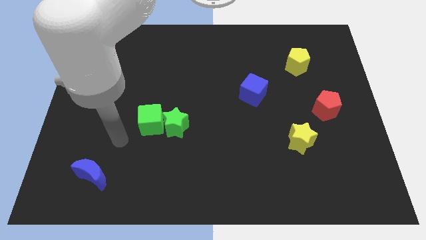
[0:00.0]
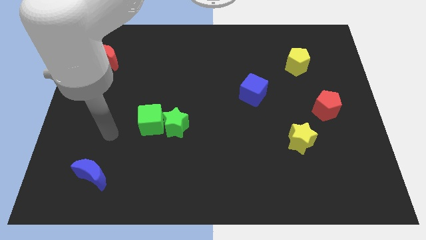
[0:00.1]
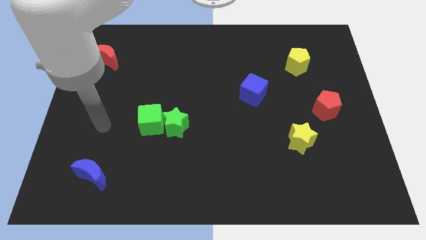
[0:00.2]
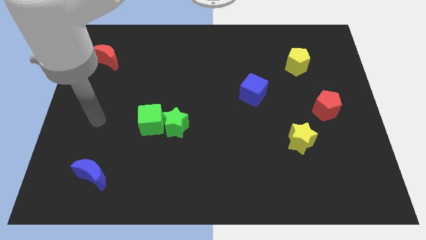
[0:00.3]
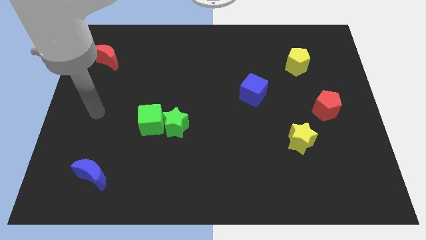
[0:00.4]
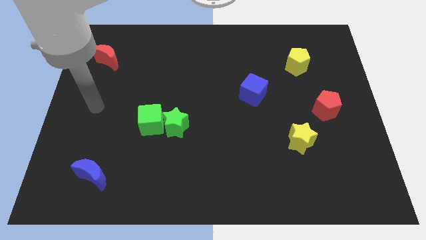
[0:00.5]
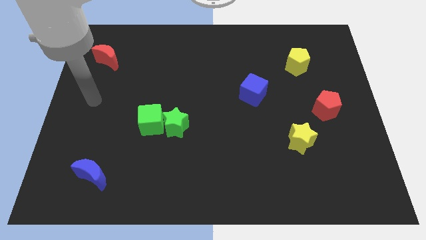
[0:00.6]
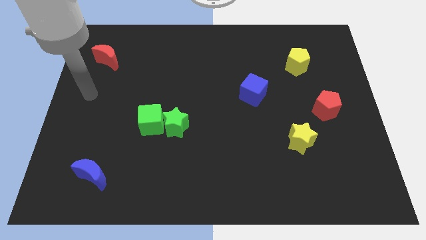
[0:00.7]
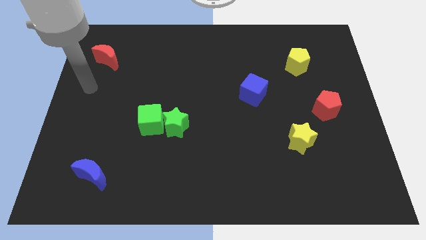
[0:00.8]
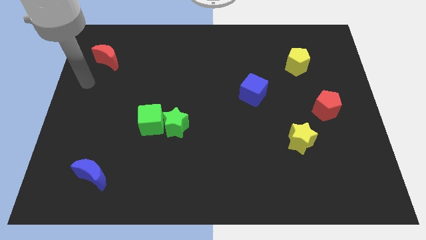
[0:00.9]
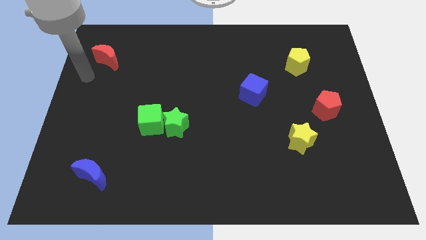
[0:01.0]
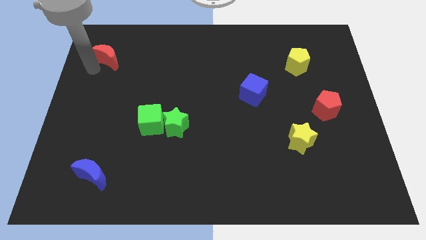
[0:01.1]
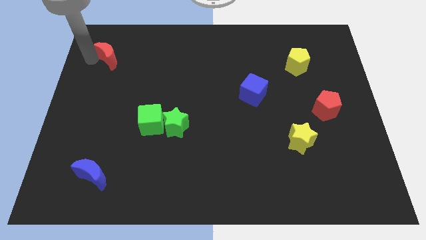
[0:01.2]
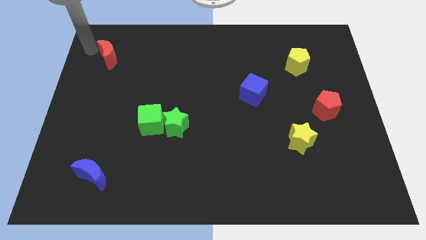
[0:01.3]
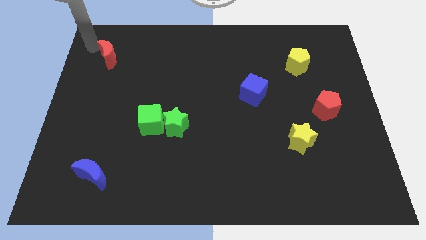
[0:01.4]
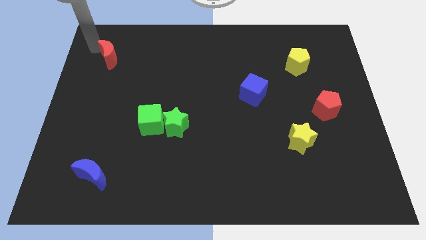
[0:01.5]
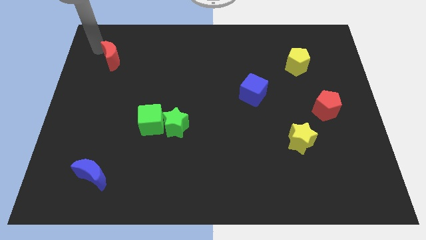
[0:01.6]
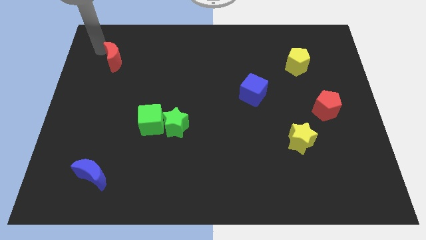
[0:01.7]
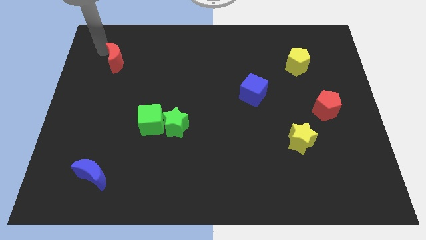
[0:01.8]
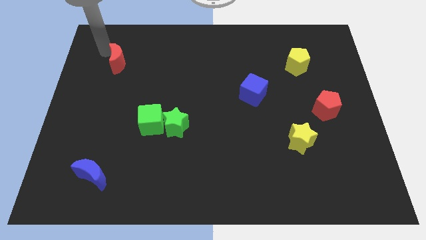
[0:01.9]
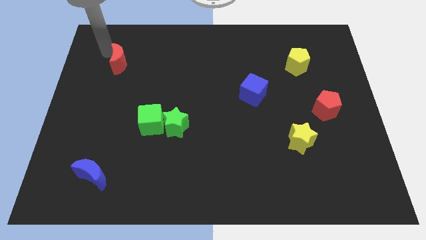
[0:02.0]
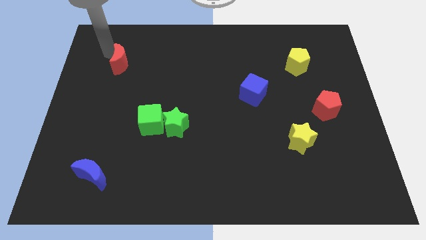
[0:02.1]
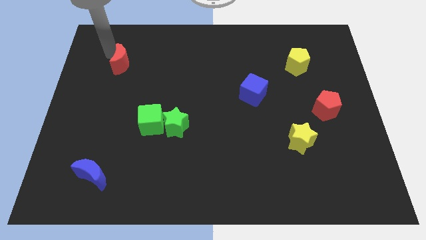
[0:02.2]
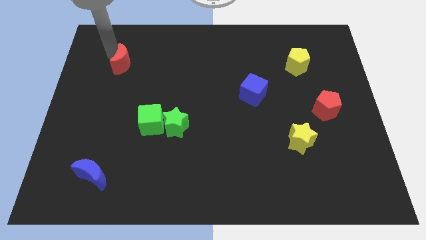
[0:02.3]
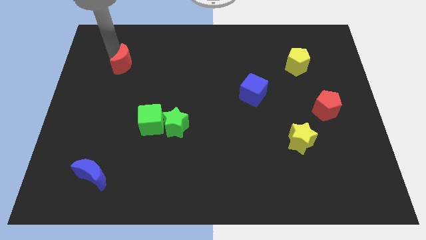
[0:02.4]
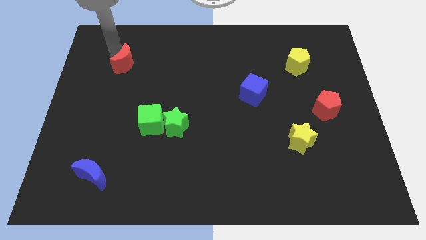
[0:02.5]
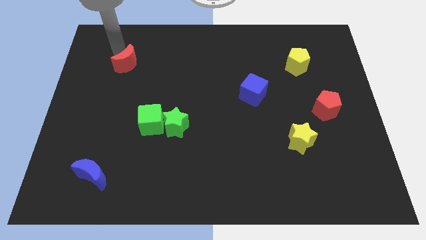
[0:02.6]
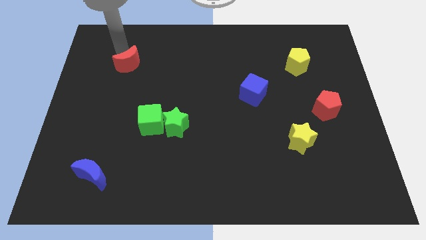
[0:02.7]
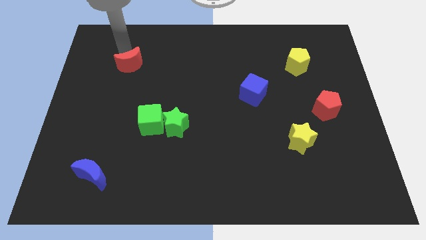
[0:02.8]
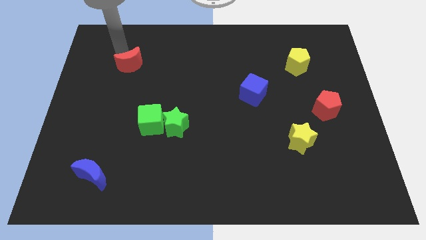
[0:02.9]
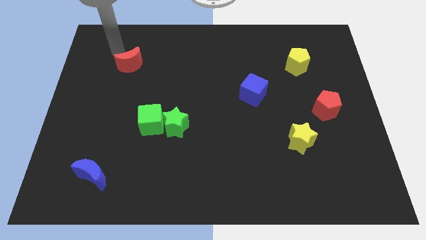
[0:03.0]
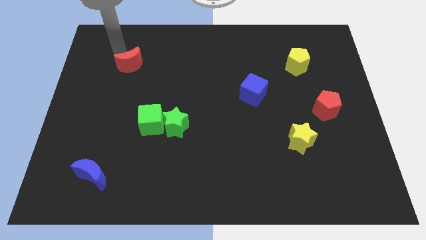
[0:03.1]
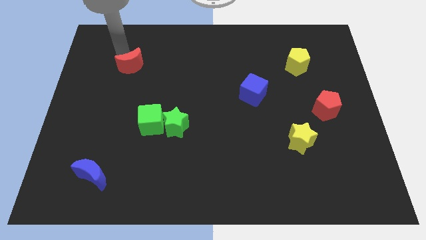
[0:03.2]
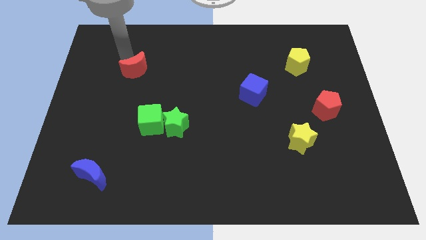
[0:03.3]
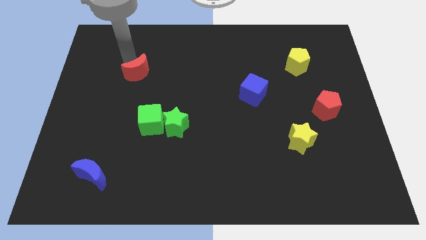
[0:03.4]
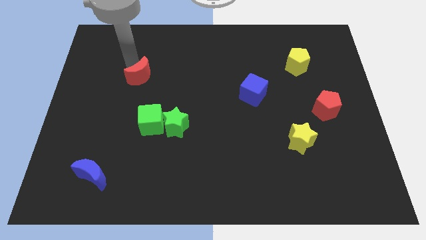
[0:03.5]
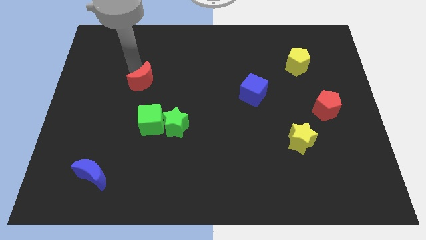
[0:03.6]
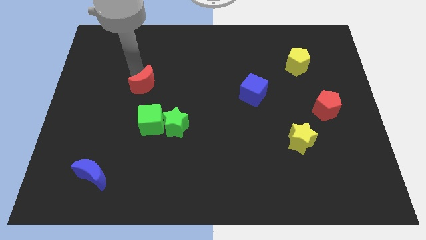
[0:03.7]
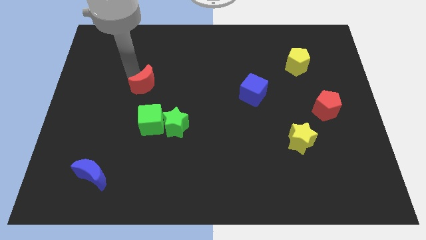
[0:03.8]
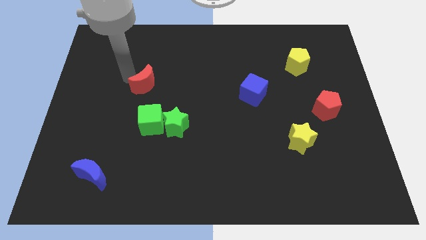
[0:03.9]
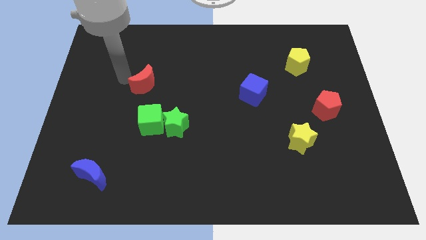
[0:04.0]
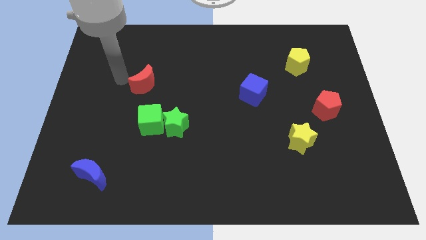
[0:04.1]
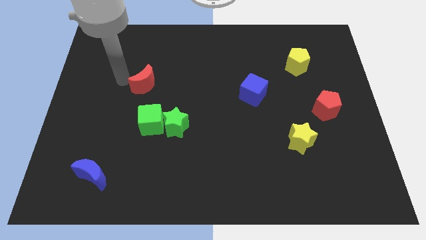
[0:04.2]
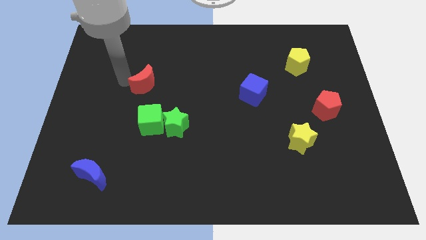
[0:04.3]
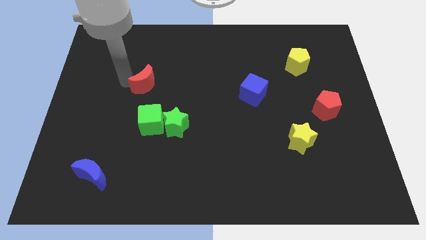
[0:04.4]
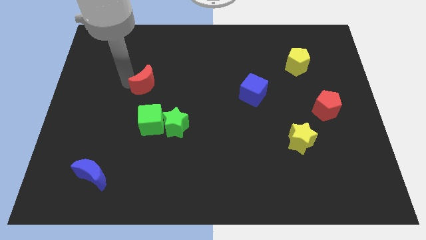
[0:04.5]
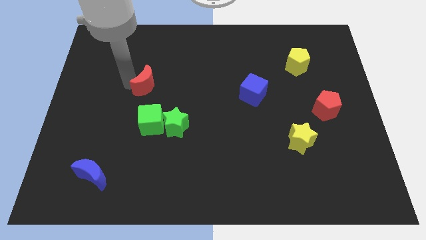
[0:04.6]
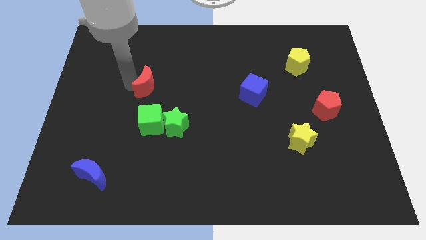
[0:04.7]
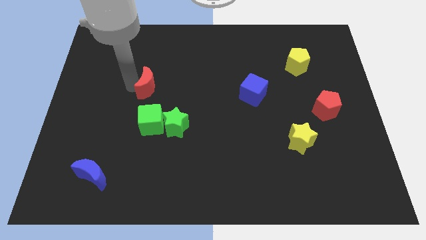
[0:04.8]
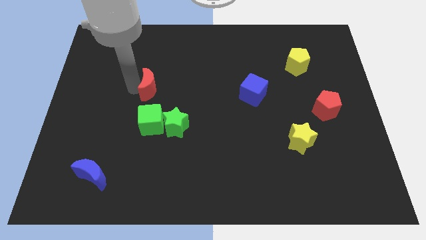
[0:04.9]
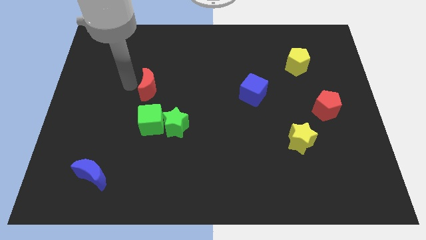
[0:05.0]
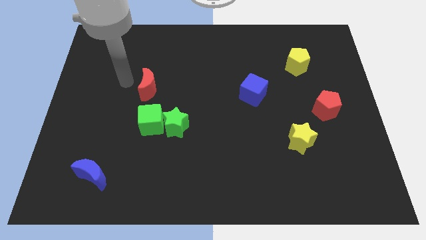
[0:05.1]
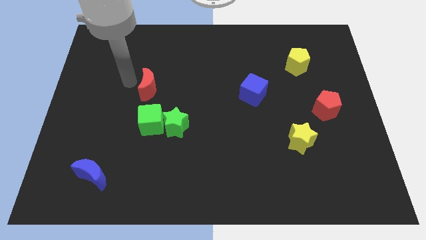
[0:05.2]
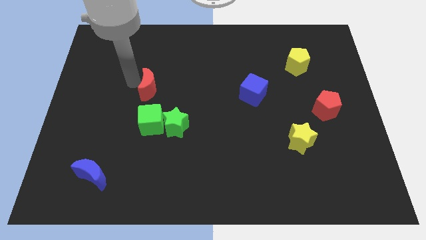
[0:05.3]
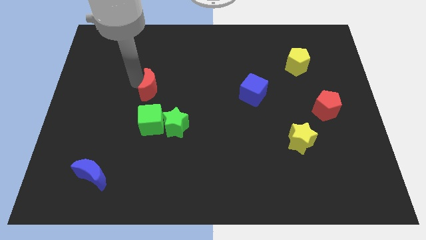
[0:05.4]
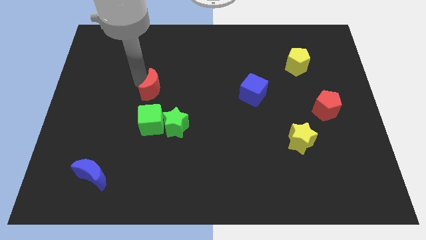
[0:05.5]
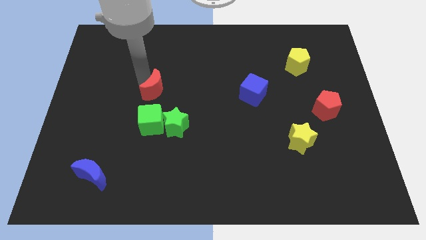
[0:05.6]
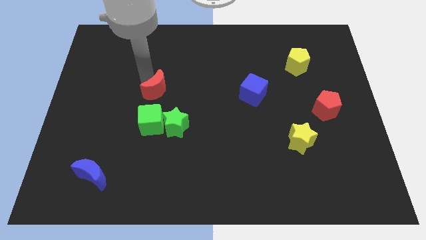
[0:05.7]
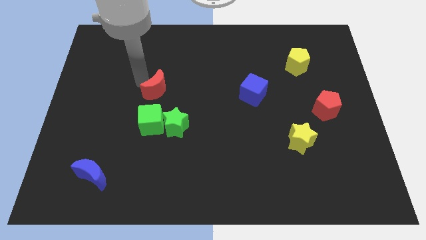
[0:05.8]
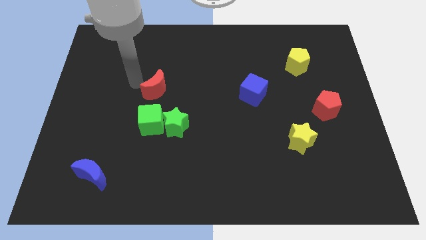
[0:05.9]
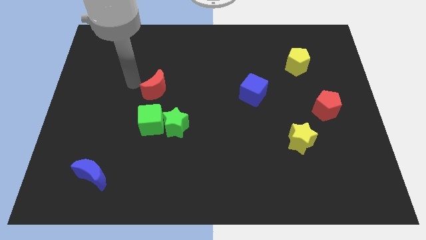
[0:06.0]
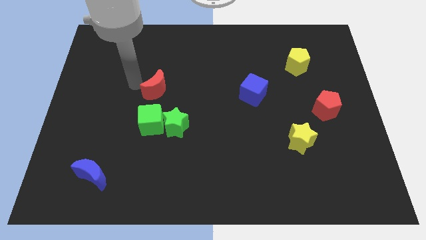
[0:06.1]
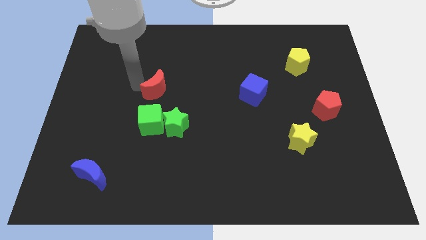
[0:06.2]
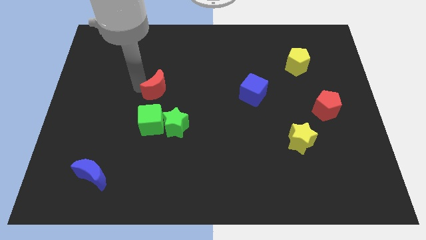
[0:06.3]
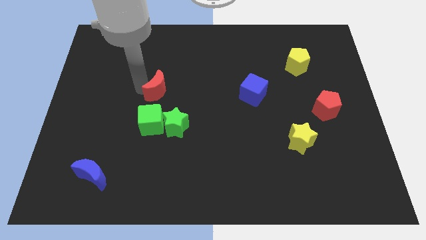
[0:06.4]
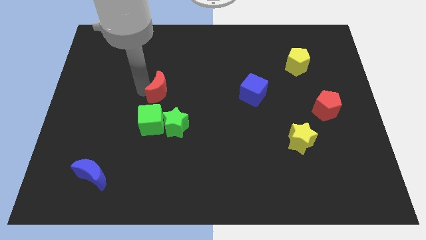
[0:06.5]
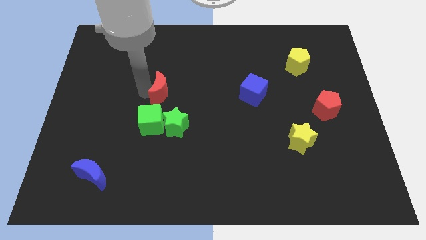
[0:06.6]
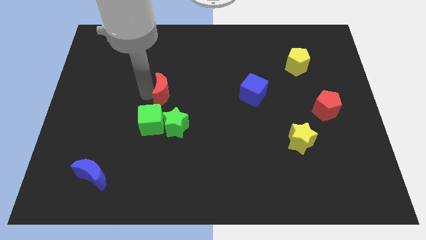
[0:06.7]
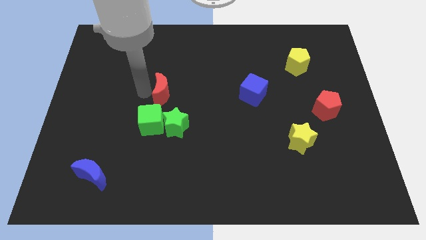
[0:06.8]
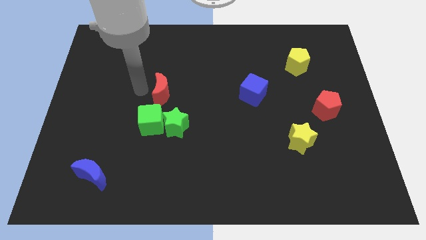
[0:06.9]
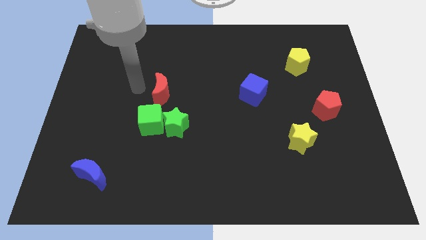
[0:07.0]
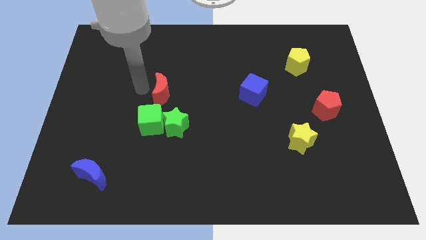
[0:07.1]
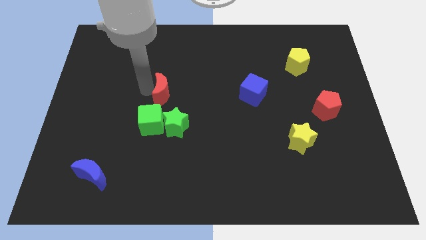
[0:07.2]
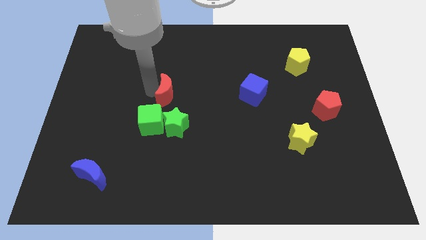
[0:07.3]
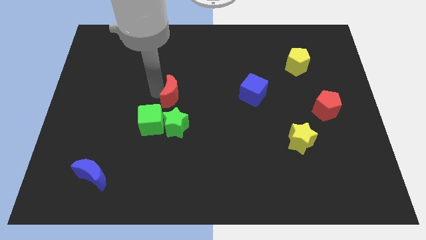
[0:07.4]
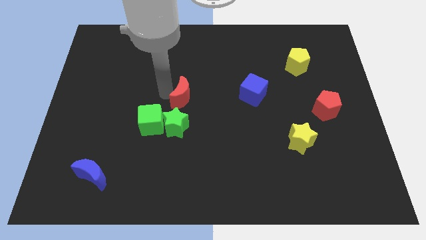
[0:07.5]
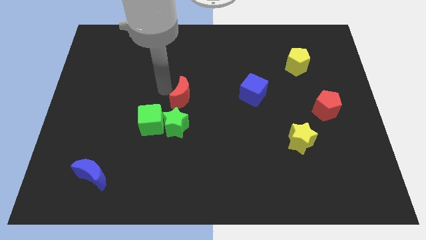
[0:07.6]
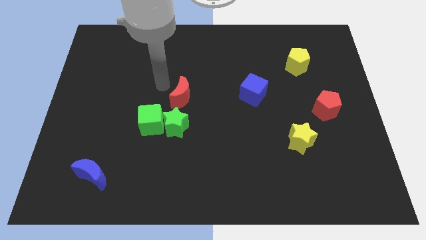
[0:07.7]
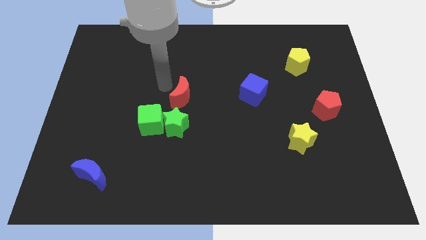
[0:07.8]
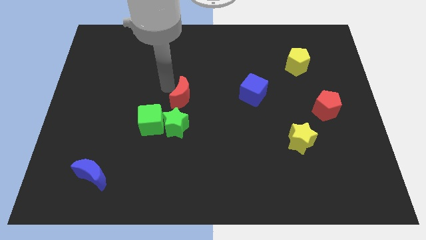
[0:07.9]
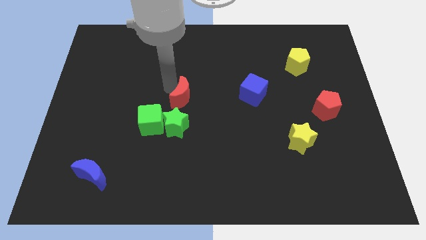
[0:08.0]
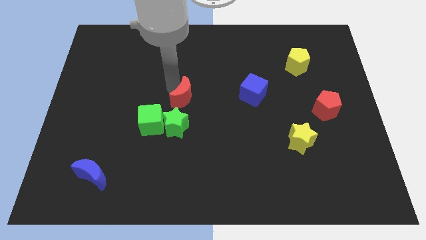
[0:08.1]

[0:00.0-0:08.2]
move the red moon to the top right of the green star
